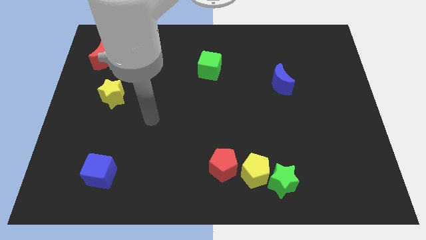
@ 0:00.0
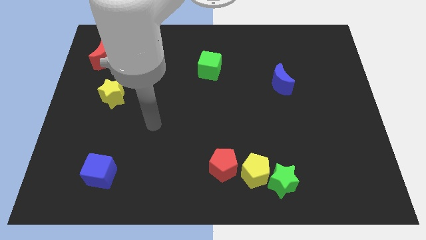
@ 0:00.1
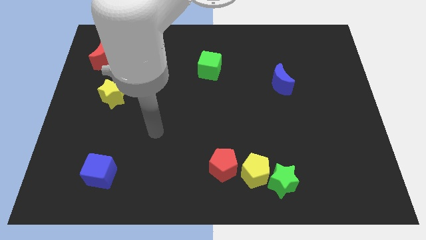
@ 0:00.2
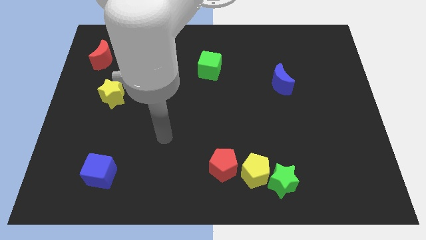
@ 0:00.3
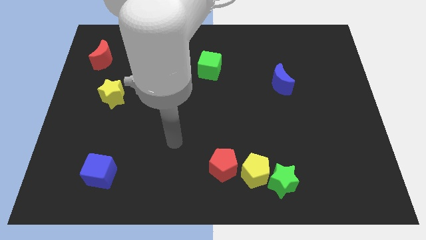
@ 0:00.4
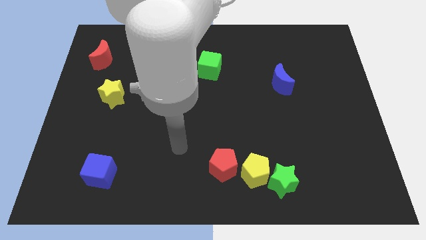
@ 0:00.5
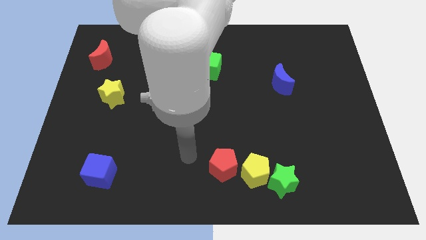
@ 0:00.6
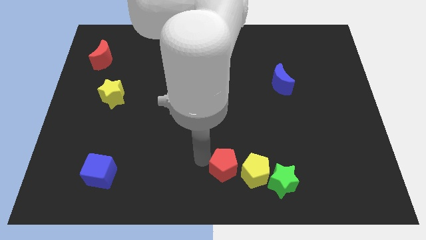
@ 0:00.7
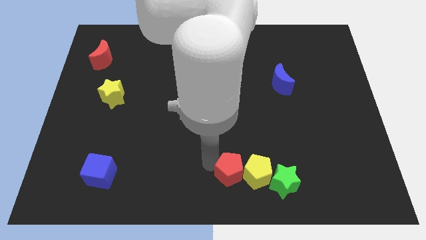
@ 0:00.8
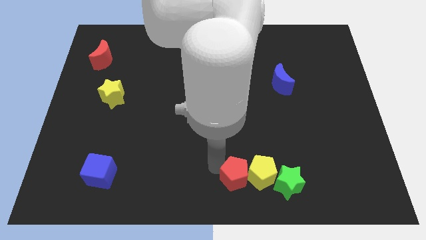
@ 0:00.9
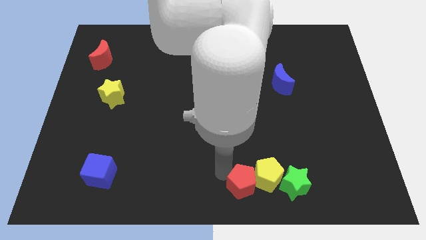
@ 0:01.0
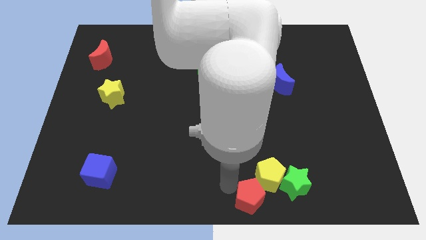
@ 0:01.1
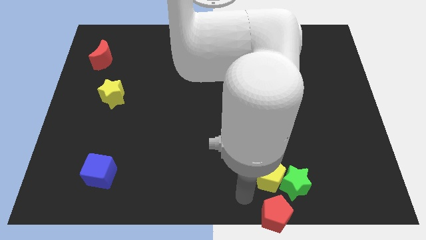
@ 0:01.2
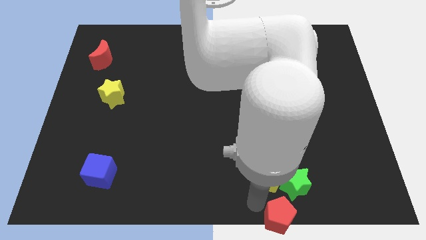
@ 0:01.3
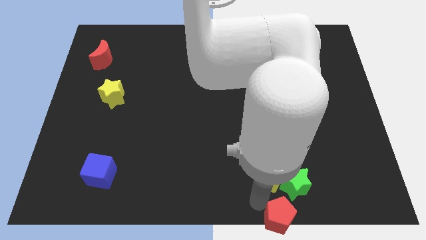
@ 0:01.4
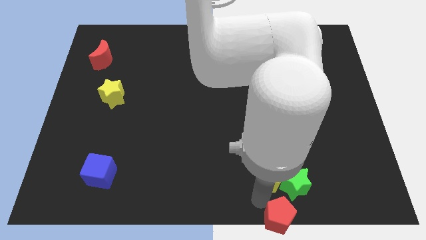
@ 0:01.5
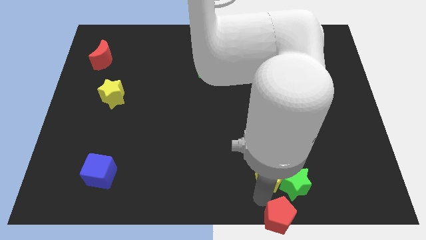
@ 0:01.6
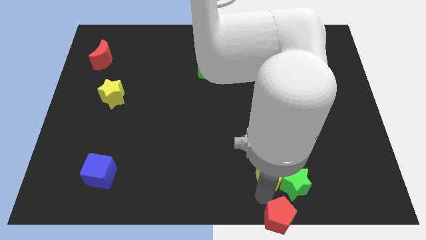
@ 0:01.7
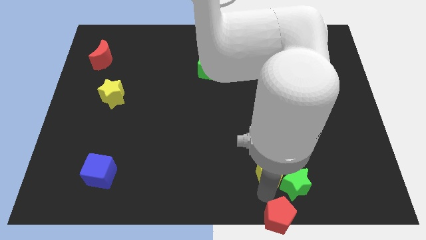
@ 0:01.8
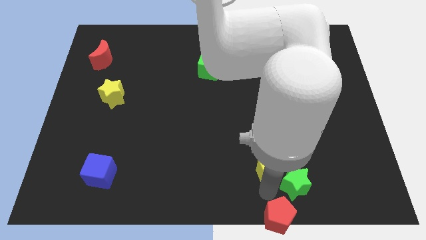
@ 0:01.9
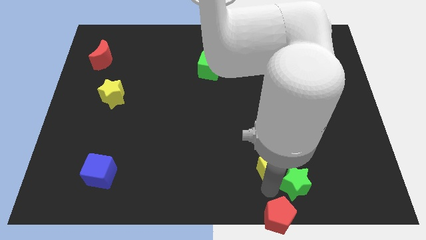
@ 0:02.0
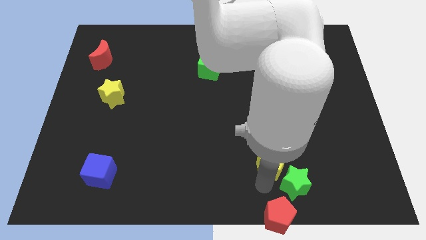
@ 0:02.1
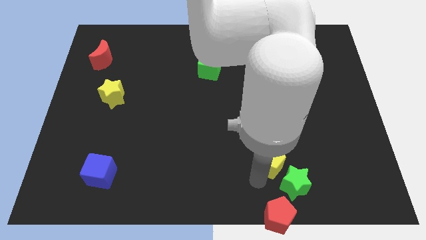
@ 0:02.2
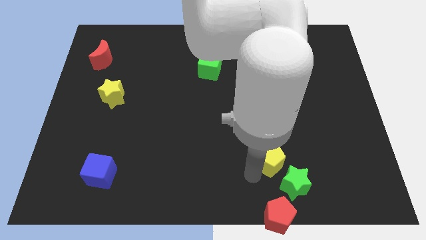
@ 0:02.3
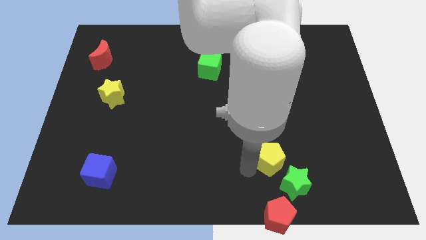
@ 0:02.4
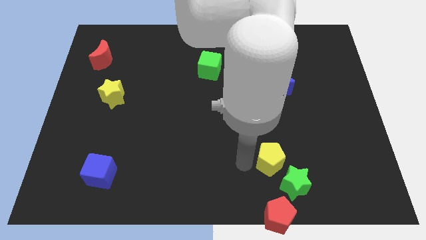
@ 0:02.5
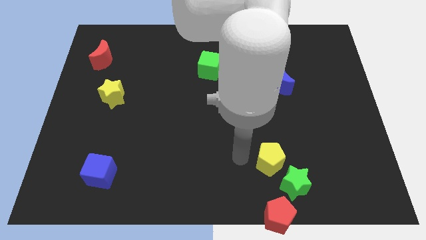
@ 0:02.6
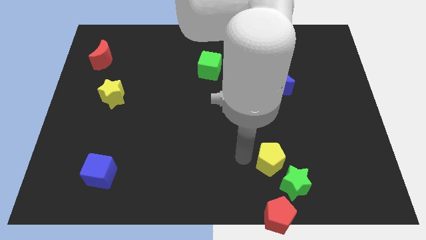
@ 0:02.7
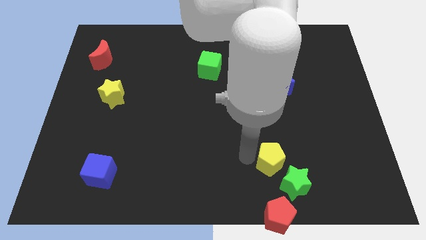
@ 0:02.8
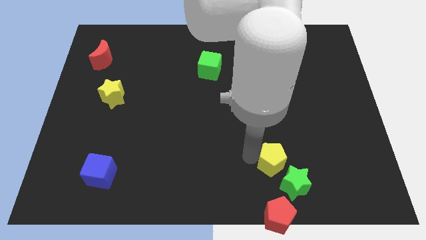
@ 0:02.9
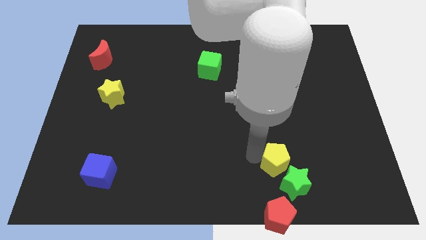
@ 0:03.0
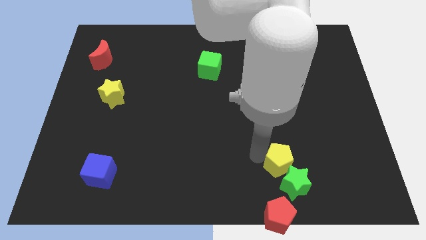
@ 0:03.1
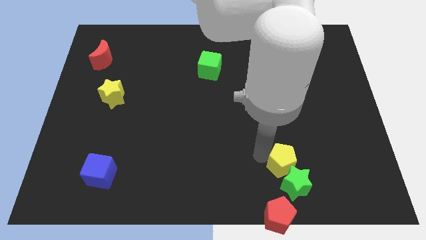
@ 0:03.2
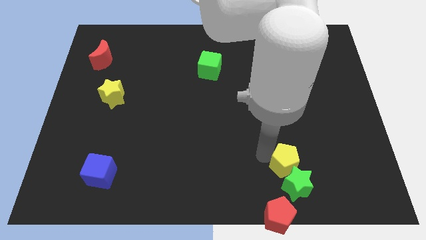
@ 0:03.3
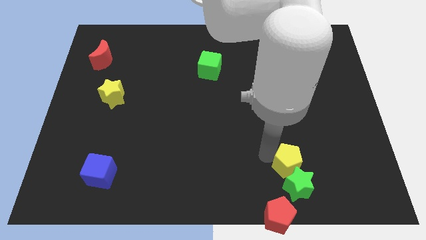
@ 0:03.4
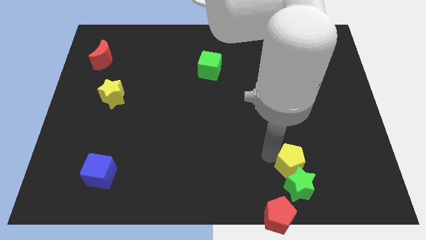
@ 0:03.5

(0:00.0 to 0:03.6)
push the yellow pentagon right slightly

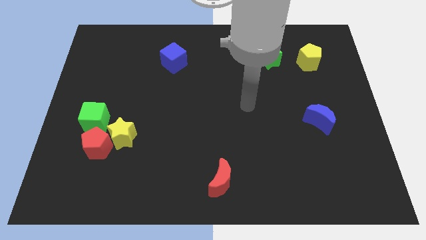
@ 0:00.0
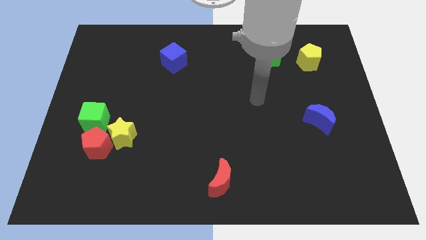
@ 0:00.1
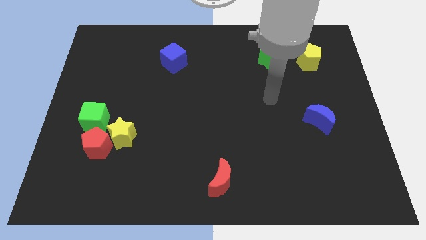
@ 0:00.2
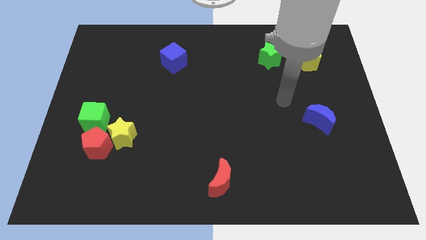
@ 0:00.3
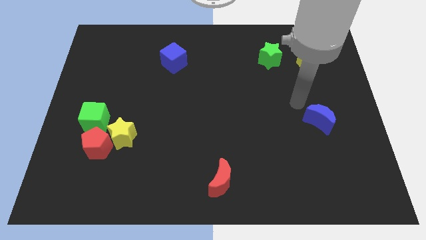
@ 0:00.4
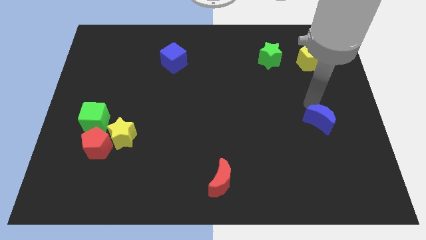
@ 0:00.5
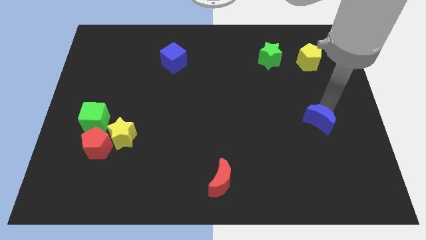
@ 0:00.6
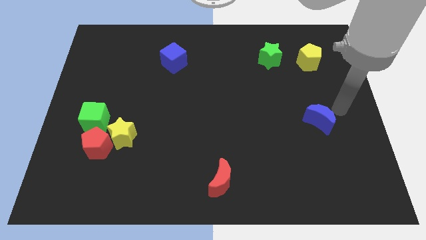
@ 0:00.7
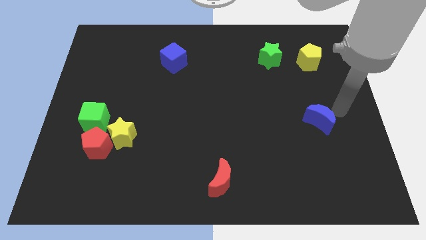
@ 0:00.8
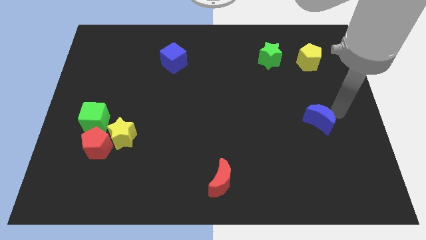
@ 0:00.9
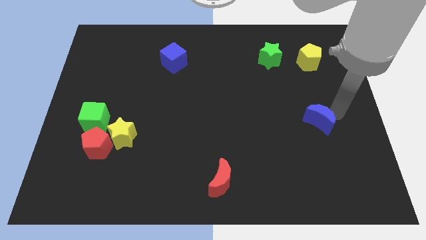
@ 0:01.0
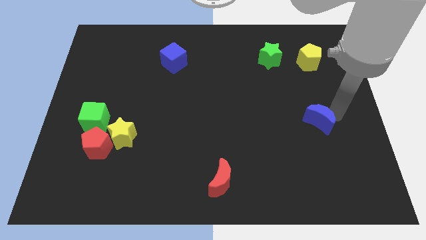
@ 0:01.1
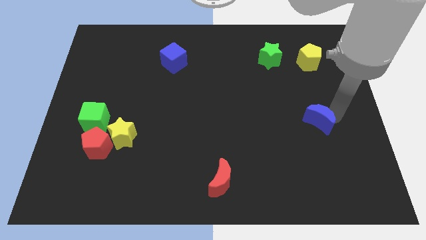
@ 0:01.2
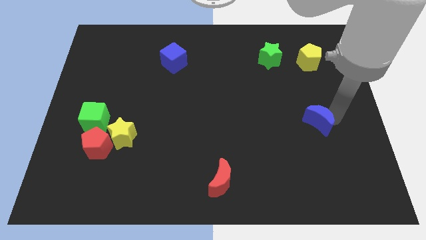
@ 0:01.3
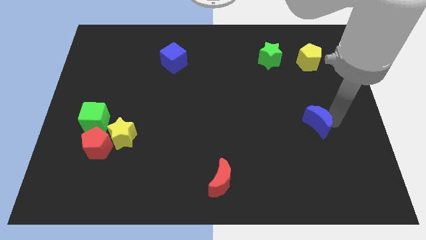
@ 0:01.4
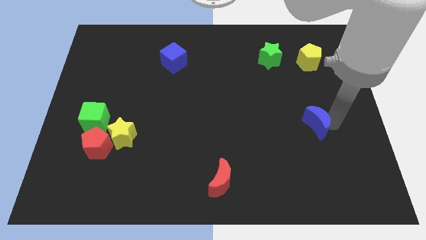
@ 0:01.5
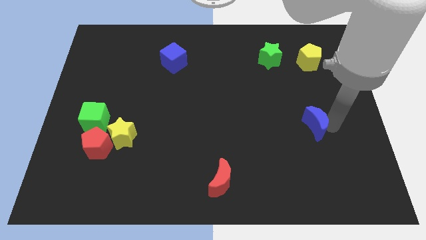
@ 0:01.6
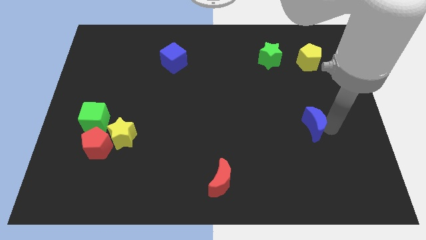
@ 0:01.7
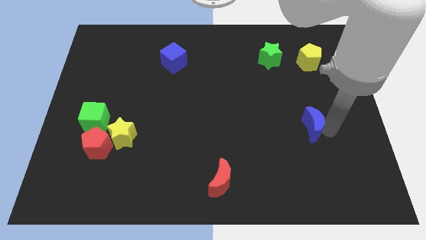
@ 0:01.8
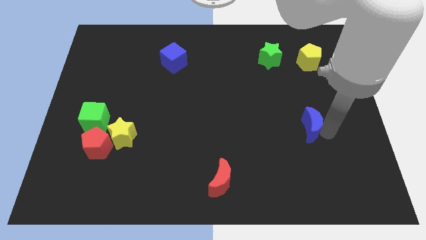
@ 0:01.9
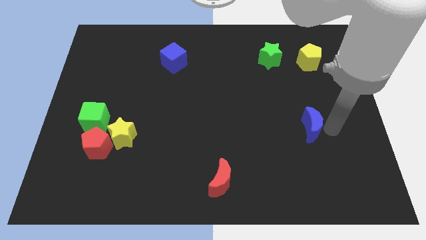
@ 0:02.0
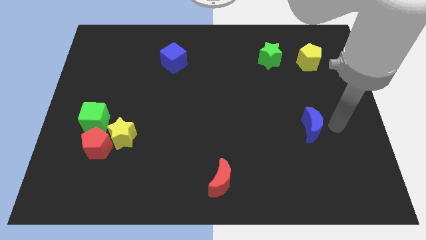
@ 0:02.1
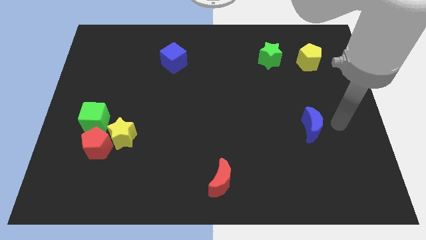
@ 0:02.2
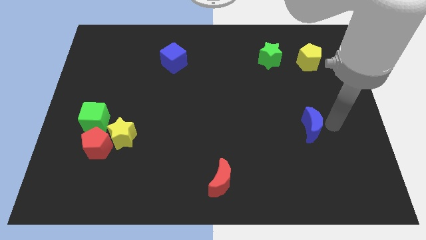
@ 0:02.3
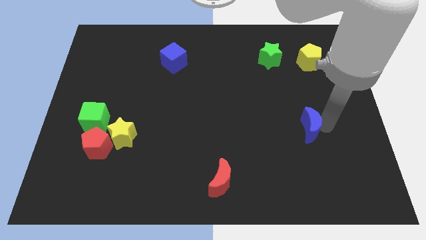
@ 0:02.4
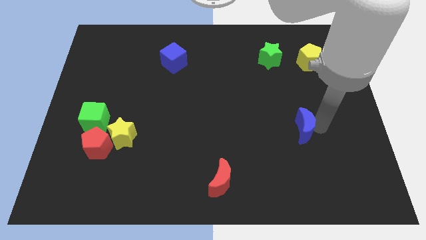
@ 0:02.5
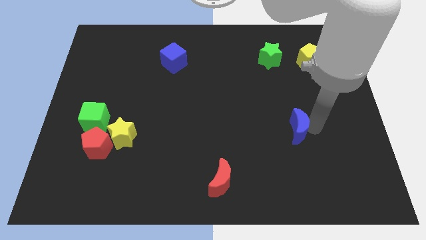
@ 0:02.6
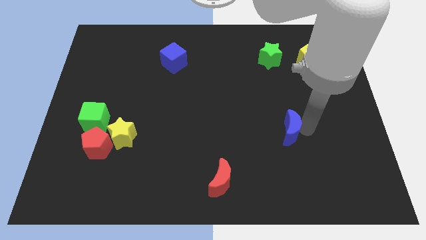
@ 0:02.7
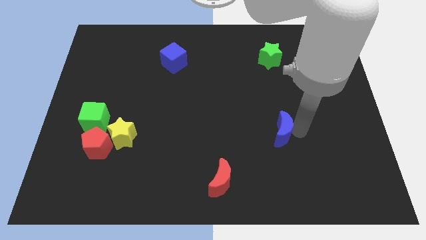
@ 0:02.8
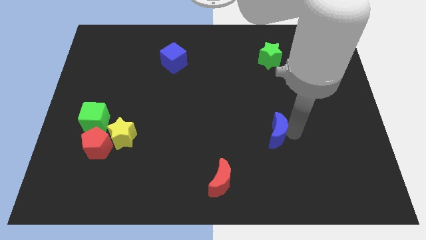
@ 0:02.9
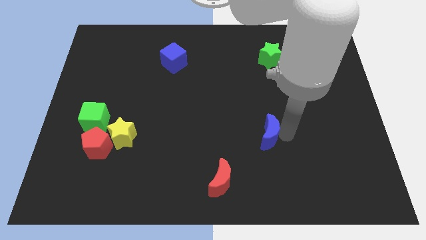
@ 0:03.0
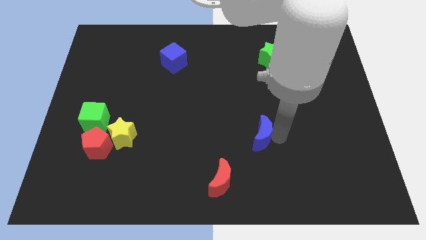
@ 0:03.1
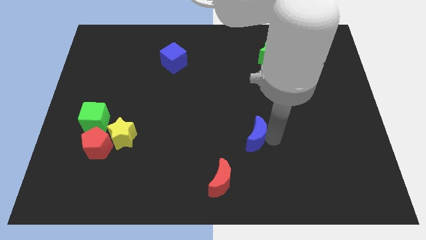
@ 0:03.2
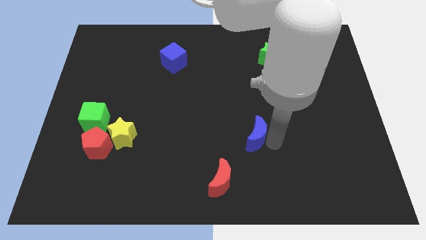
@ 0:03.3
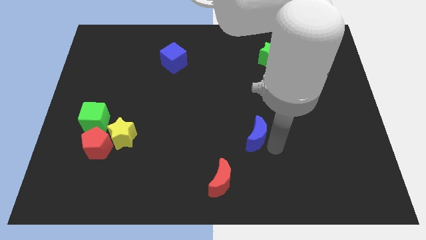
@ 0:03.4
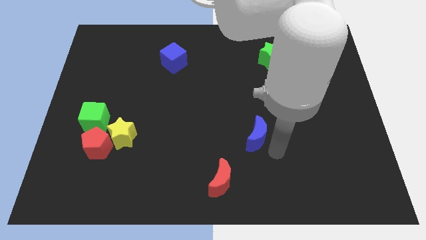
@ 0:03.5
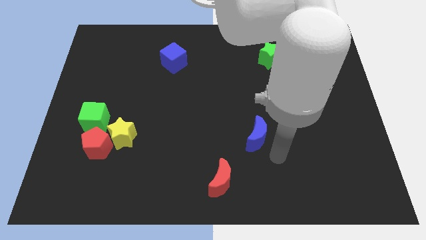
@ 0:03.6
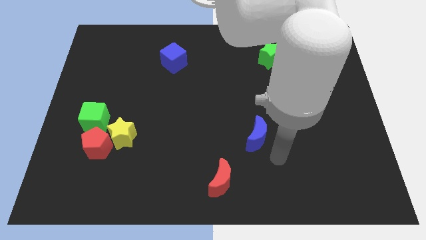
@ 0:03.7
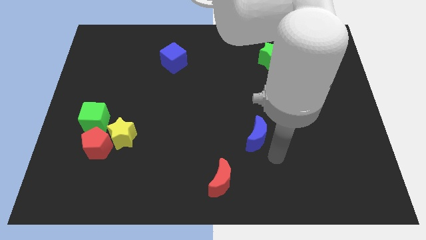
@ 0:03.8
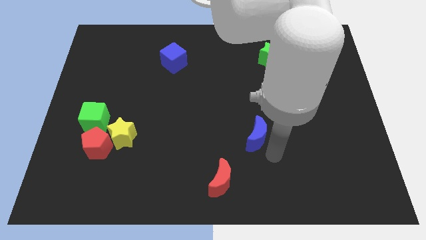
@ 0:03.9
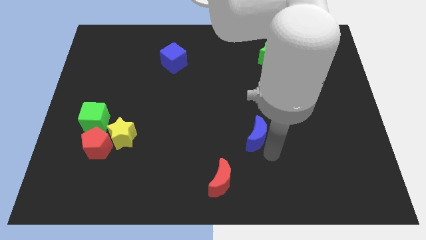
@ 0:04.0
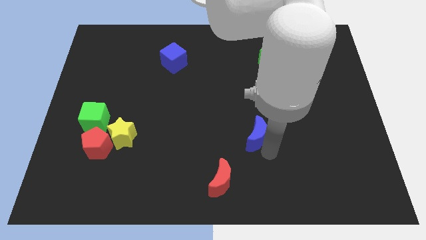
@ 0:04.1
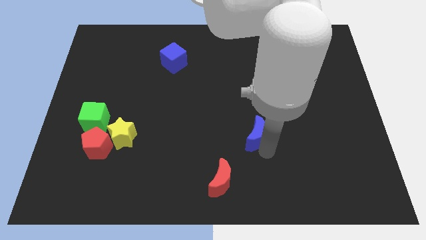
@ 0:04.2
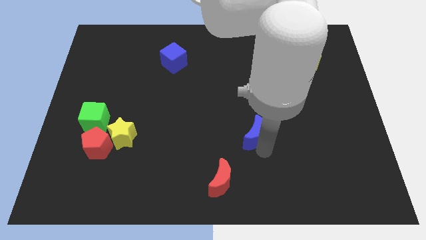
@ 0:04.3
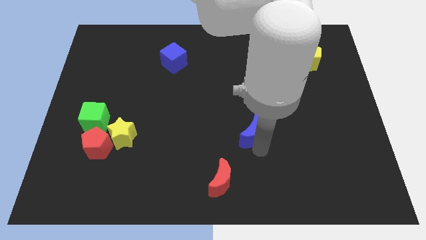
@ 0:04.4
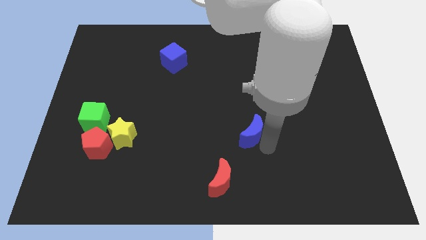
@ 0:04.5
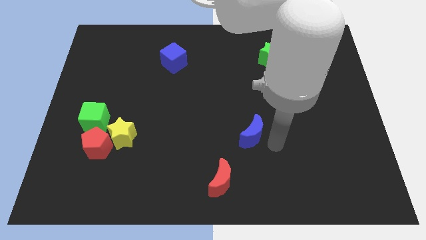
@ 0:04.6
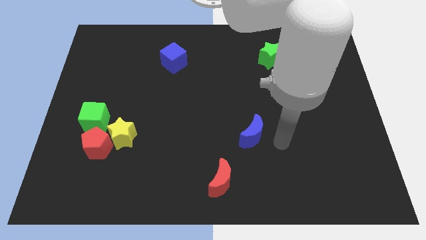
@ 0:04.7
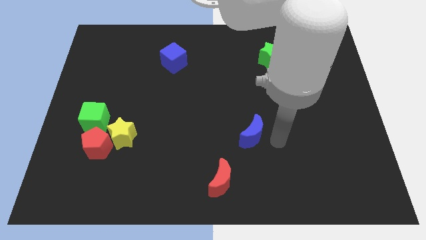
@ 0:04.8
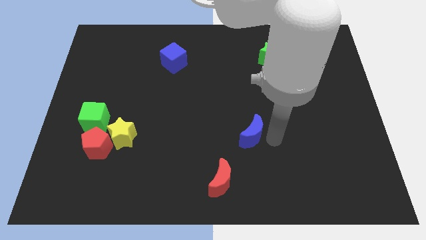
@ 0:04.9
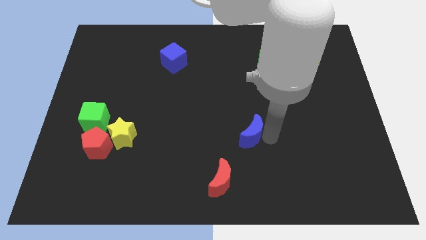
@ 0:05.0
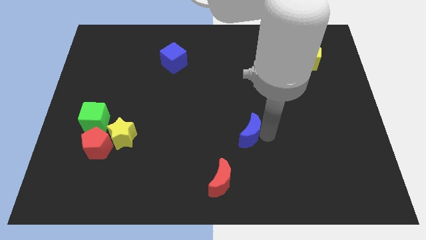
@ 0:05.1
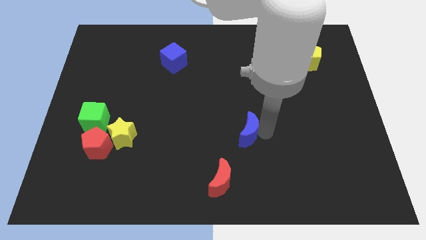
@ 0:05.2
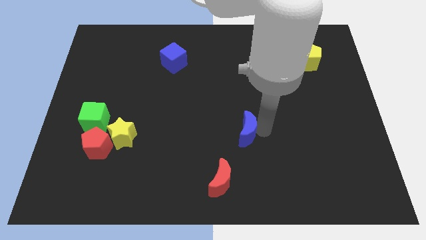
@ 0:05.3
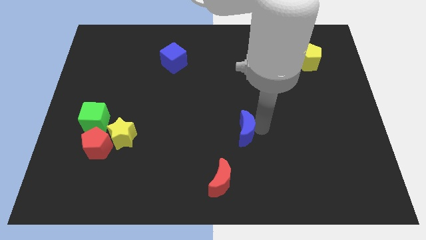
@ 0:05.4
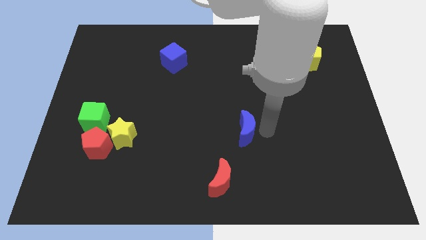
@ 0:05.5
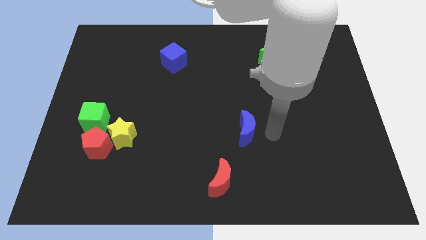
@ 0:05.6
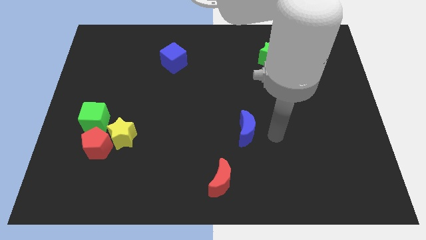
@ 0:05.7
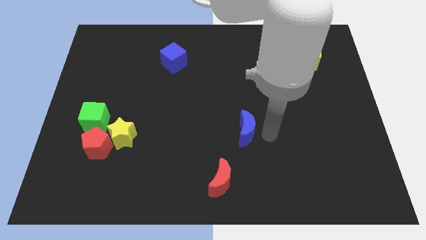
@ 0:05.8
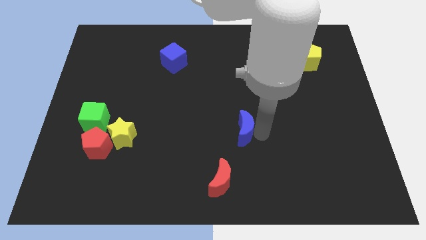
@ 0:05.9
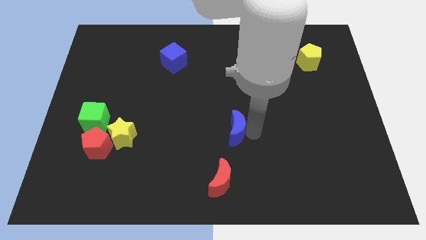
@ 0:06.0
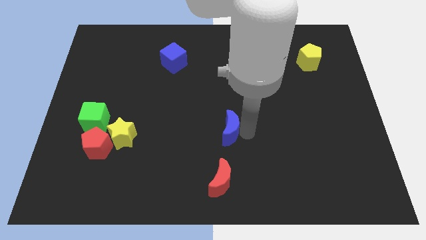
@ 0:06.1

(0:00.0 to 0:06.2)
move the blue moon left
